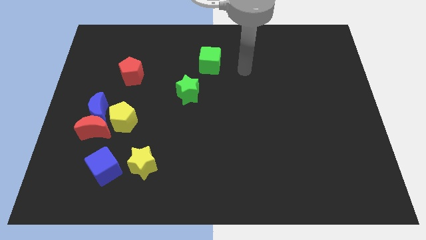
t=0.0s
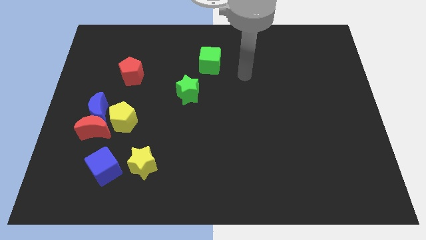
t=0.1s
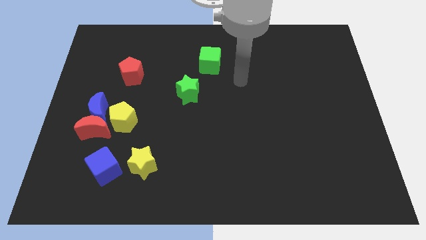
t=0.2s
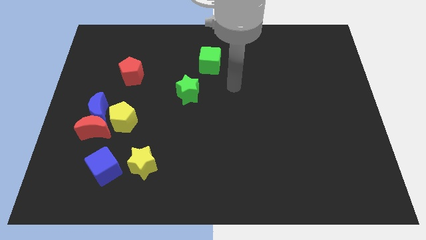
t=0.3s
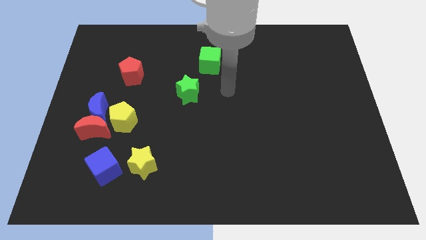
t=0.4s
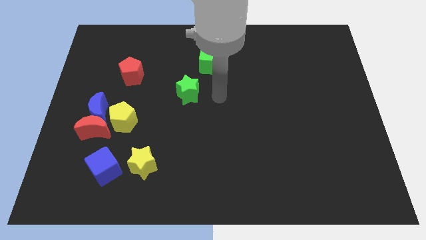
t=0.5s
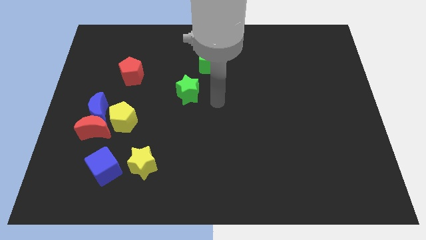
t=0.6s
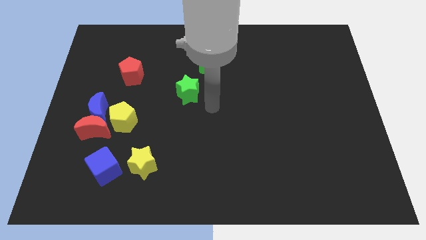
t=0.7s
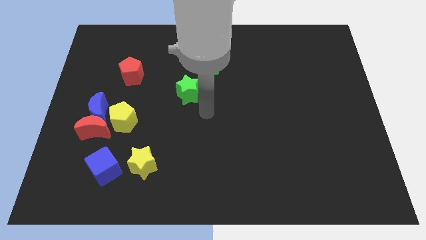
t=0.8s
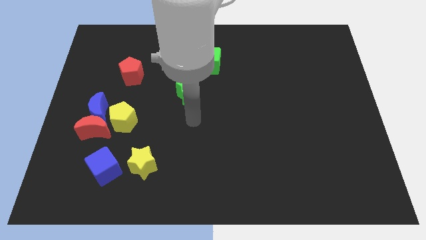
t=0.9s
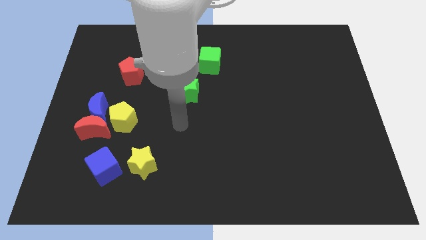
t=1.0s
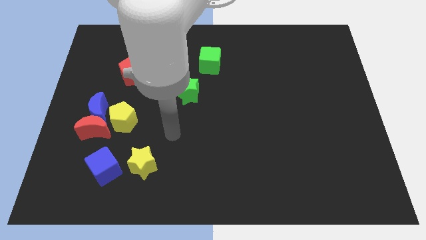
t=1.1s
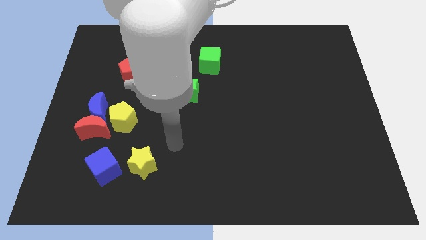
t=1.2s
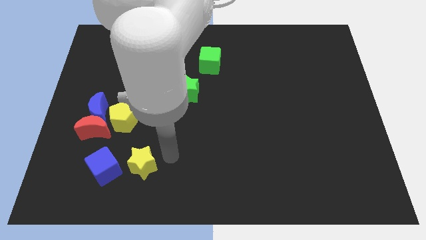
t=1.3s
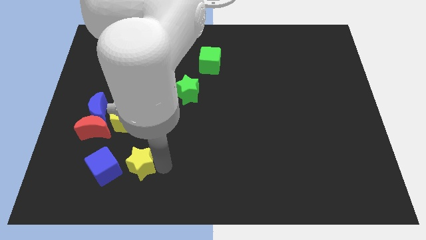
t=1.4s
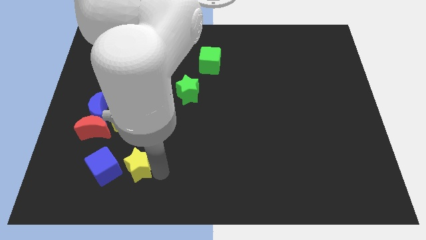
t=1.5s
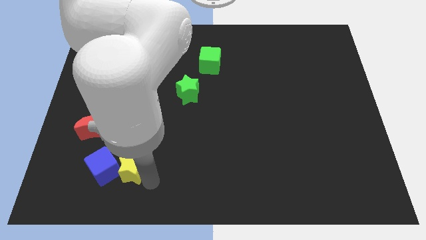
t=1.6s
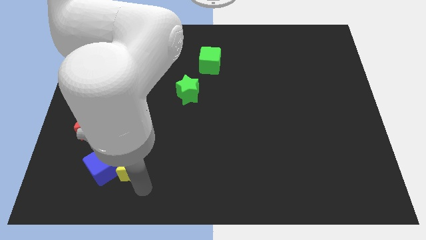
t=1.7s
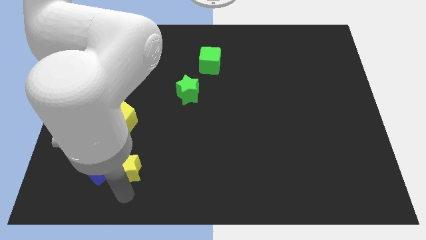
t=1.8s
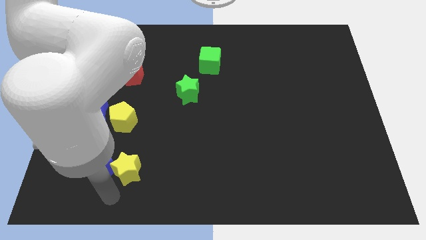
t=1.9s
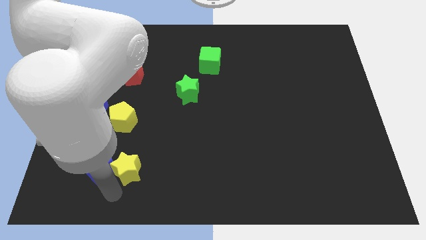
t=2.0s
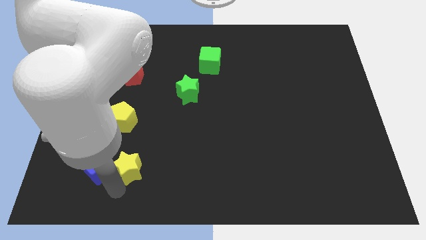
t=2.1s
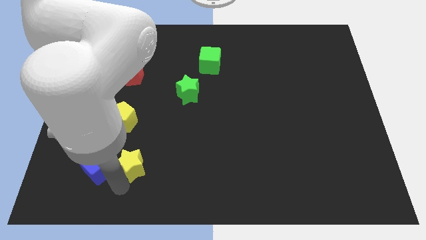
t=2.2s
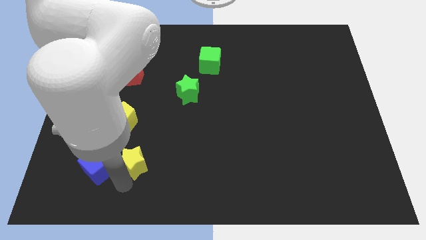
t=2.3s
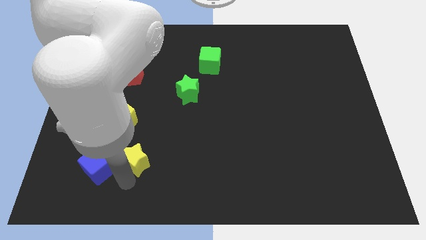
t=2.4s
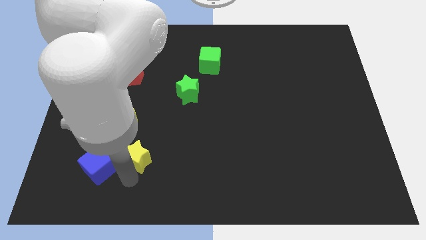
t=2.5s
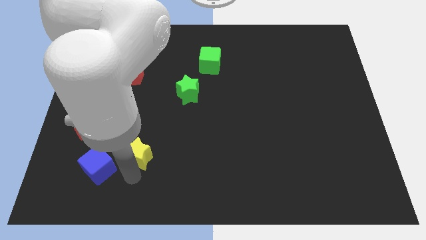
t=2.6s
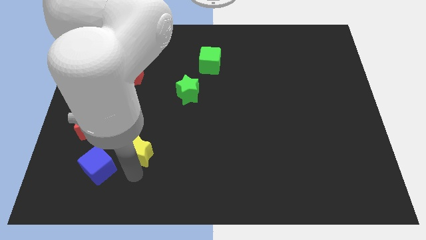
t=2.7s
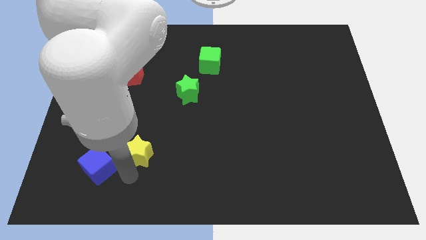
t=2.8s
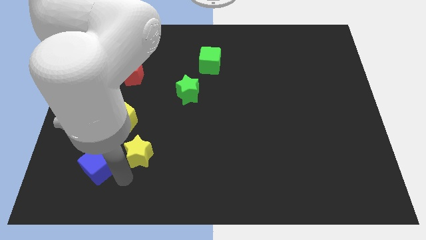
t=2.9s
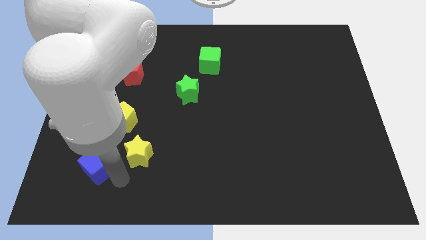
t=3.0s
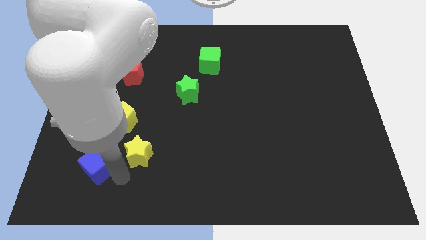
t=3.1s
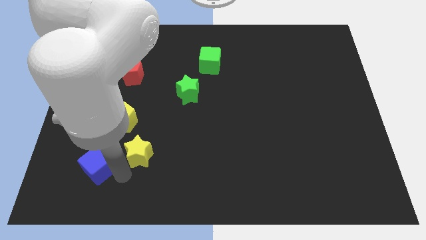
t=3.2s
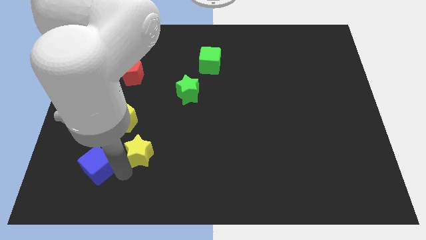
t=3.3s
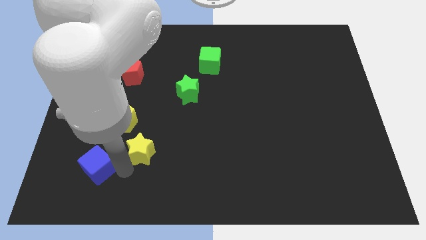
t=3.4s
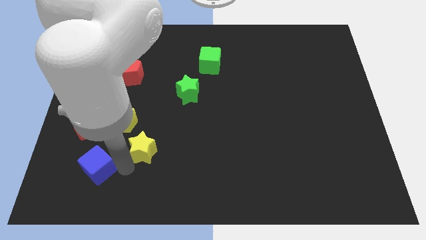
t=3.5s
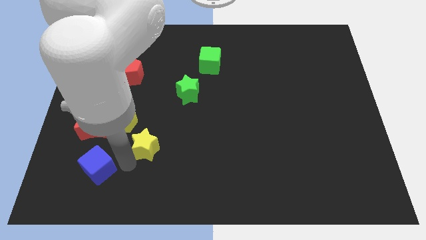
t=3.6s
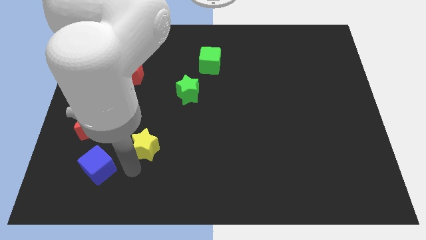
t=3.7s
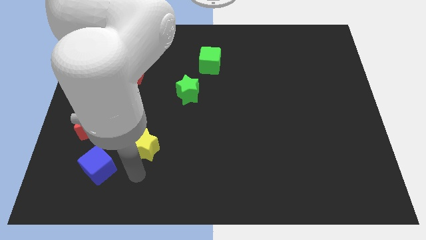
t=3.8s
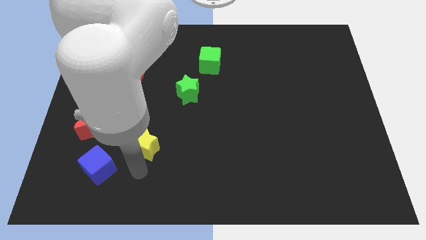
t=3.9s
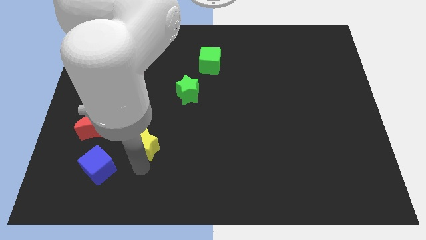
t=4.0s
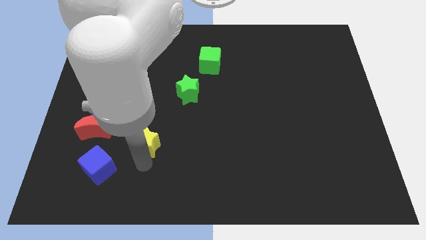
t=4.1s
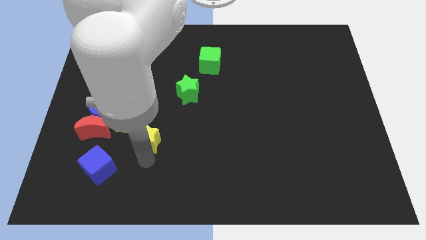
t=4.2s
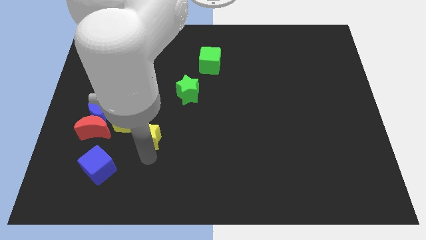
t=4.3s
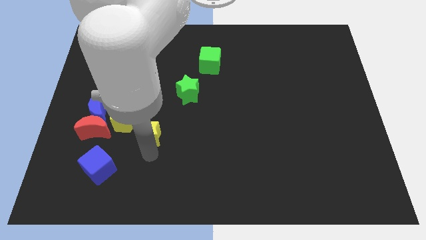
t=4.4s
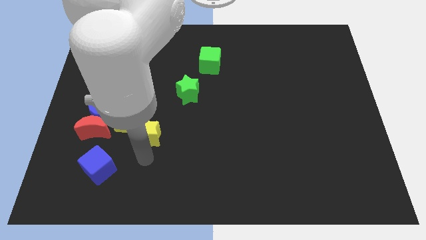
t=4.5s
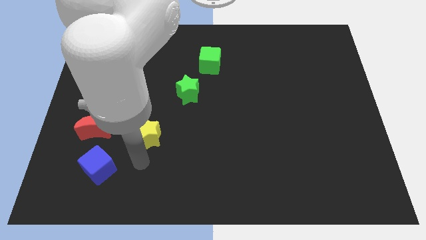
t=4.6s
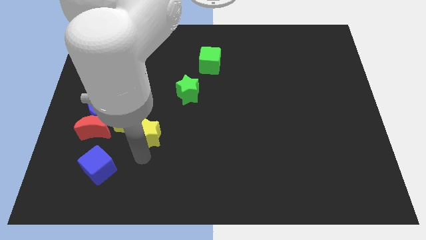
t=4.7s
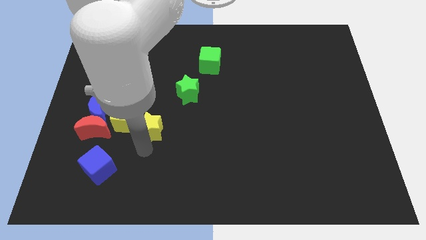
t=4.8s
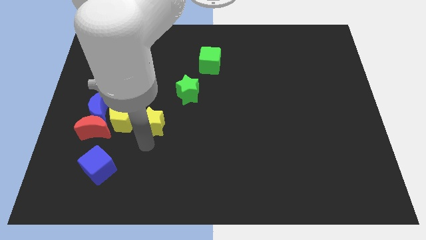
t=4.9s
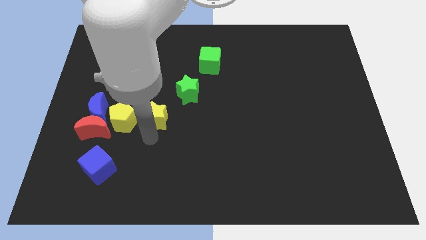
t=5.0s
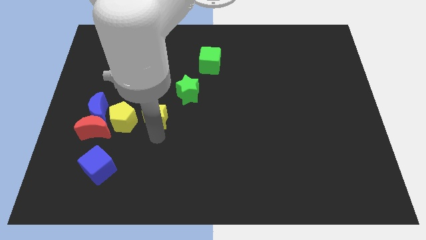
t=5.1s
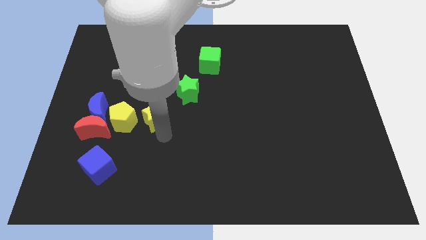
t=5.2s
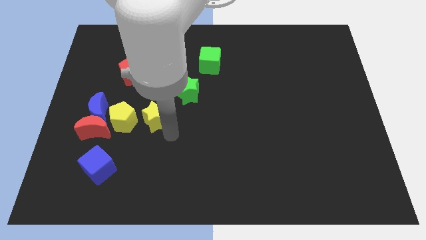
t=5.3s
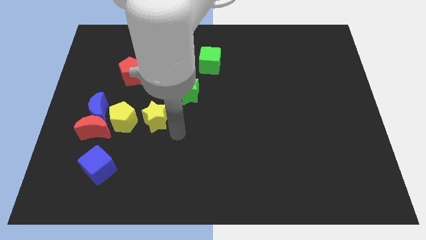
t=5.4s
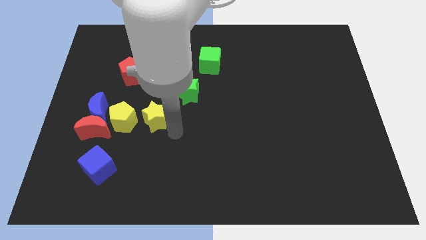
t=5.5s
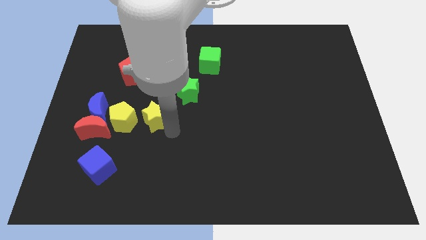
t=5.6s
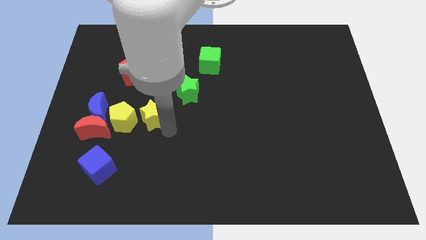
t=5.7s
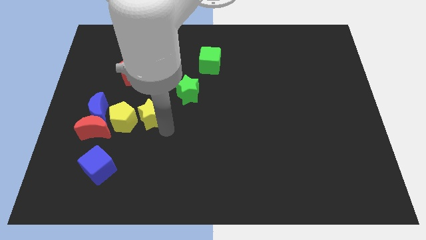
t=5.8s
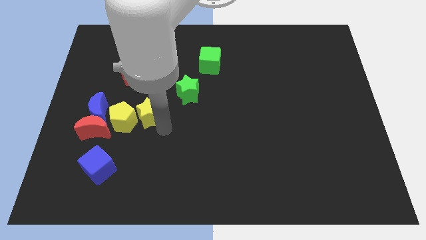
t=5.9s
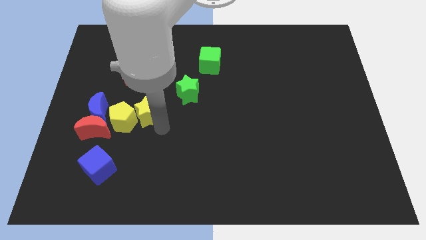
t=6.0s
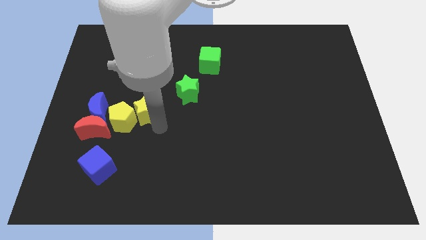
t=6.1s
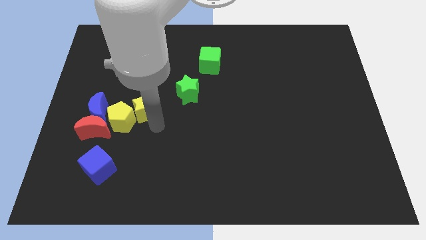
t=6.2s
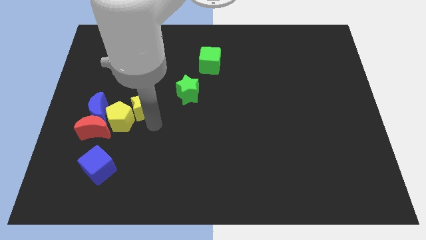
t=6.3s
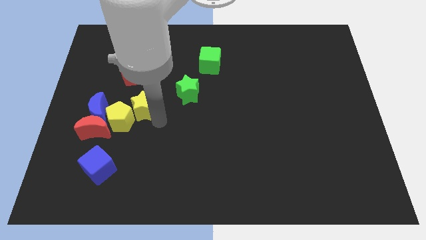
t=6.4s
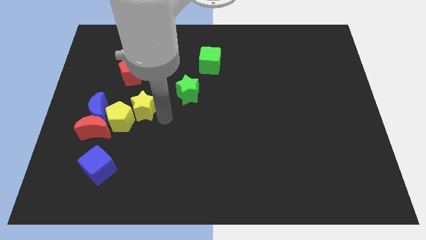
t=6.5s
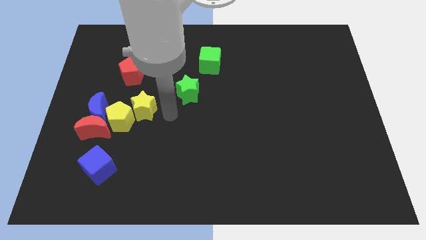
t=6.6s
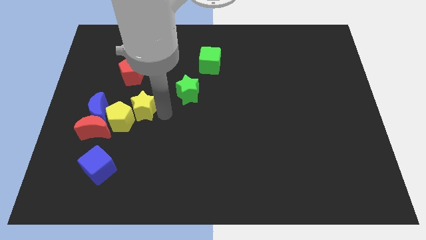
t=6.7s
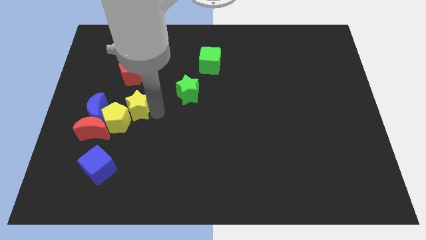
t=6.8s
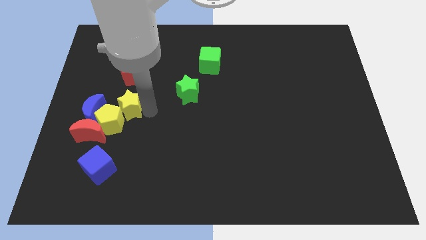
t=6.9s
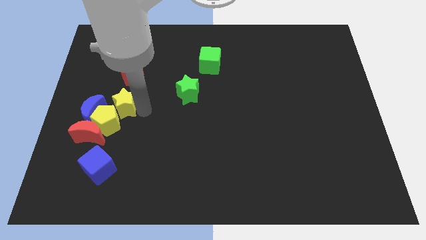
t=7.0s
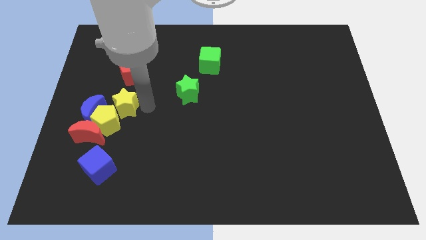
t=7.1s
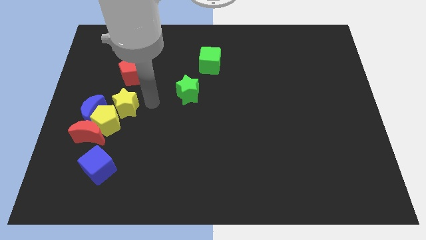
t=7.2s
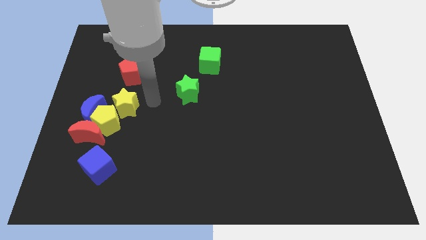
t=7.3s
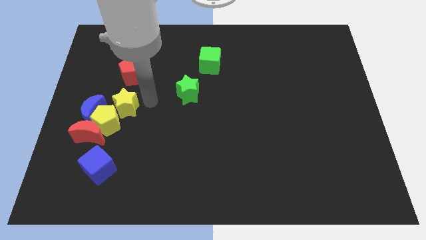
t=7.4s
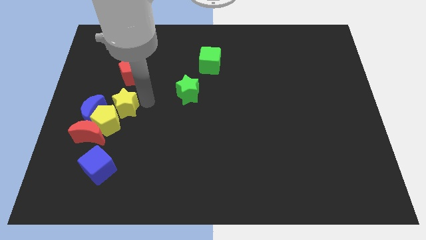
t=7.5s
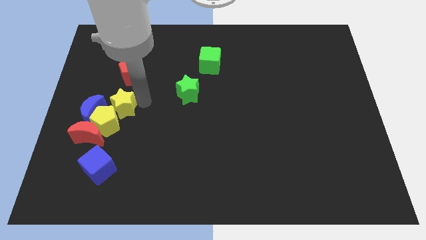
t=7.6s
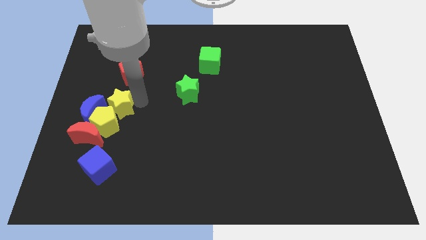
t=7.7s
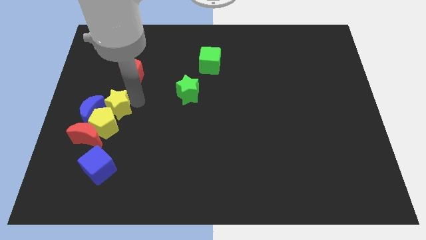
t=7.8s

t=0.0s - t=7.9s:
slide the yellow star towards the blue moon

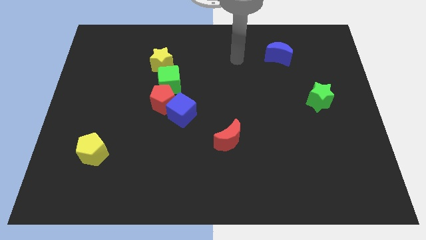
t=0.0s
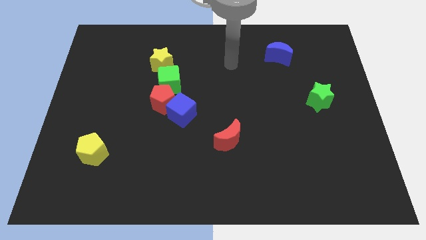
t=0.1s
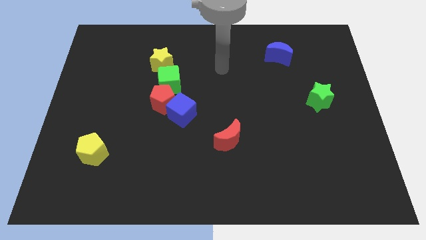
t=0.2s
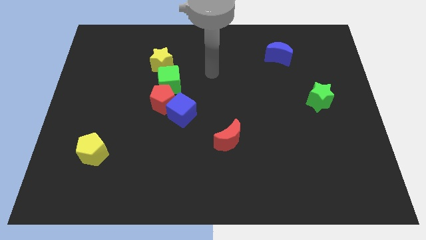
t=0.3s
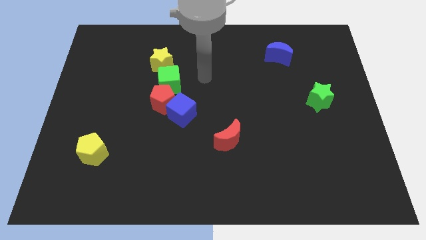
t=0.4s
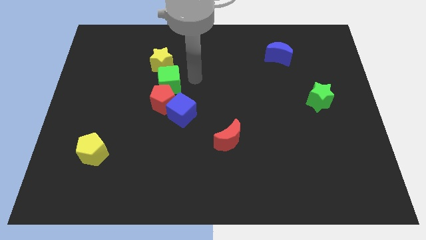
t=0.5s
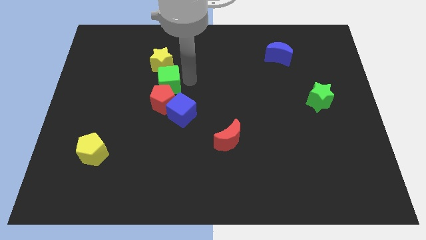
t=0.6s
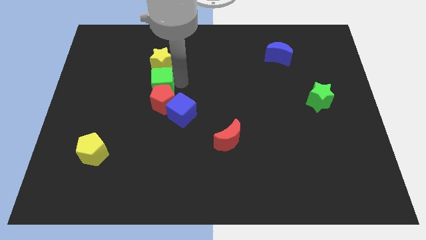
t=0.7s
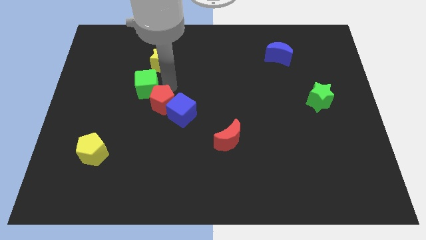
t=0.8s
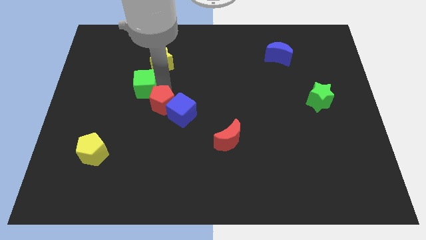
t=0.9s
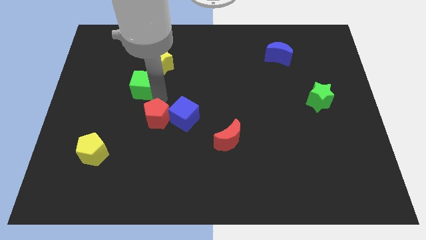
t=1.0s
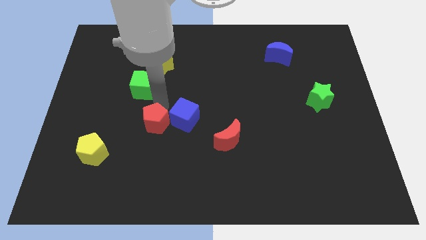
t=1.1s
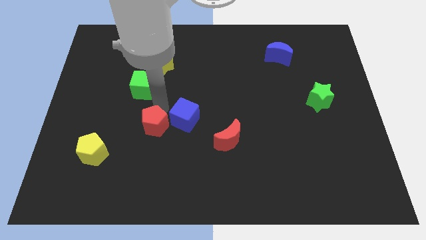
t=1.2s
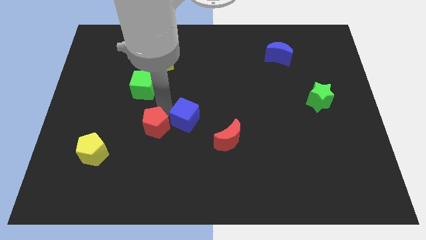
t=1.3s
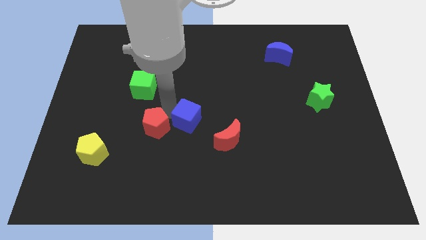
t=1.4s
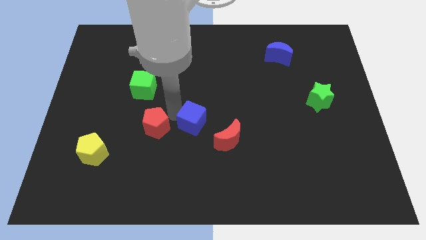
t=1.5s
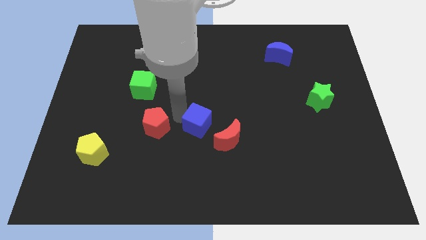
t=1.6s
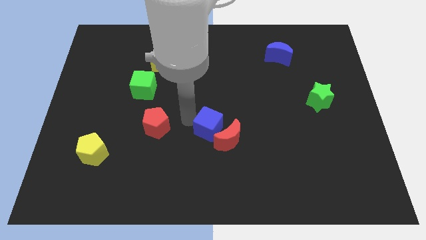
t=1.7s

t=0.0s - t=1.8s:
slide the blue cube towards the red moon
